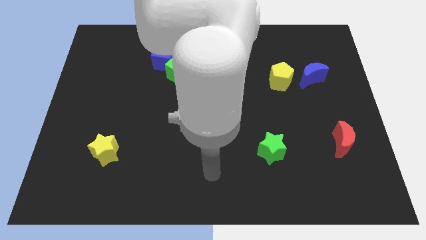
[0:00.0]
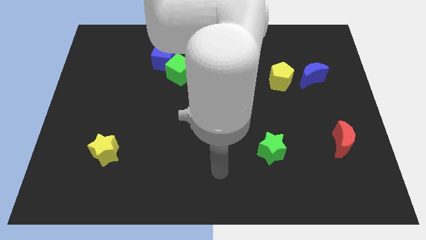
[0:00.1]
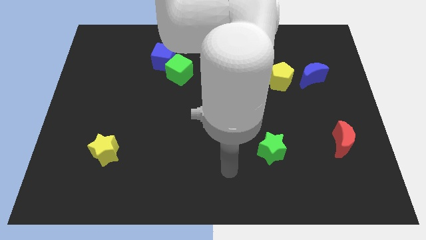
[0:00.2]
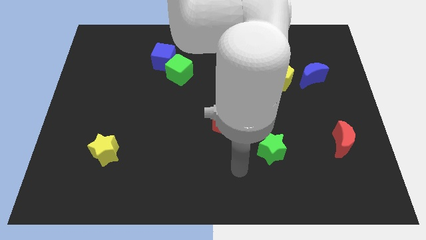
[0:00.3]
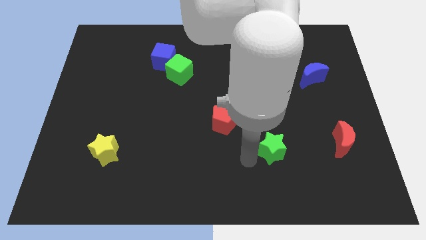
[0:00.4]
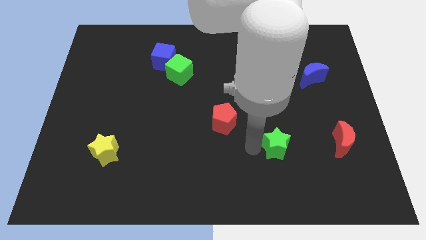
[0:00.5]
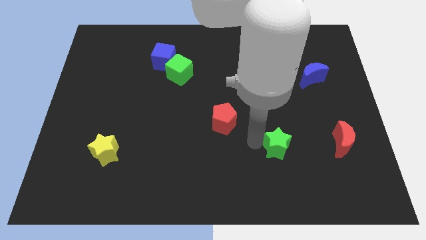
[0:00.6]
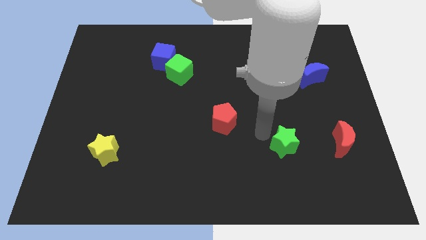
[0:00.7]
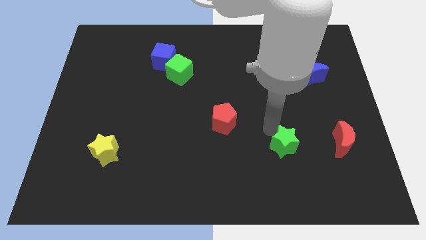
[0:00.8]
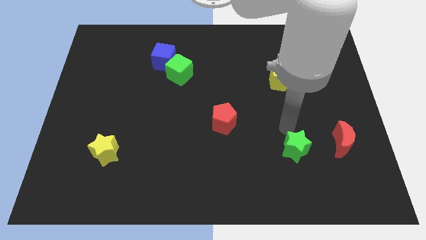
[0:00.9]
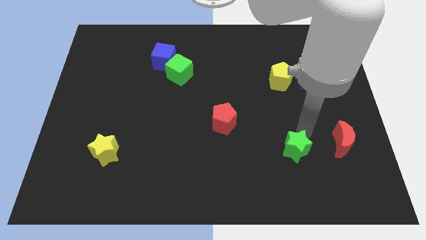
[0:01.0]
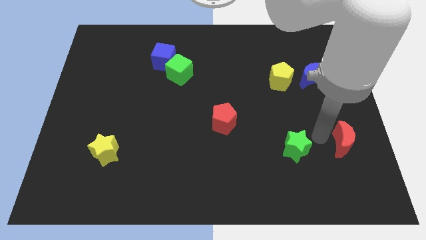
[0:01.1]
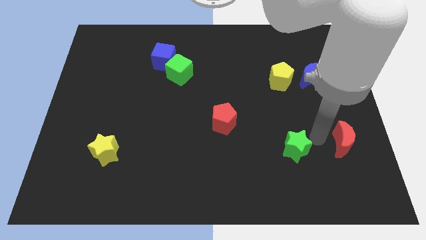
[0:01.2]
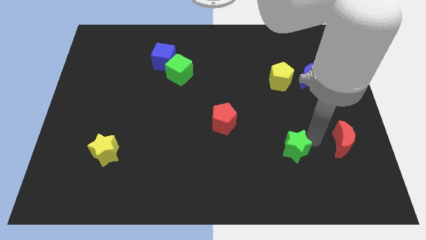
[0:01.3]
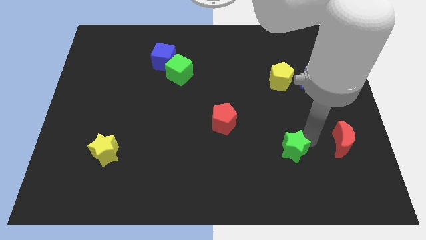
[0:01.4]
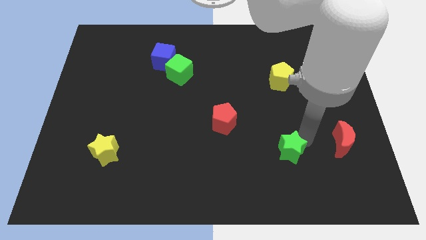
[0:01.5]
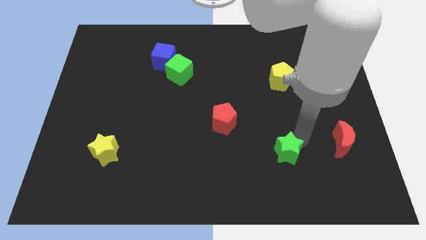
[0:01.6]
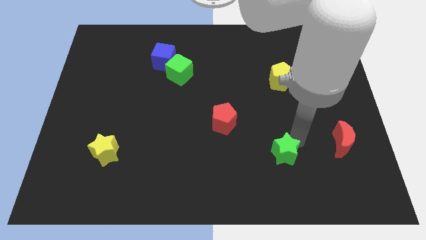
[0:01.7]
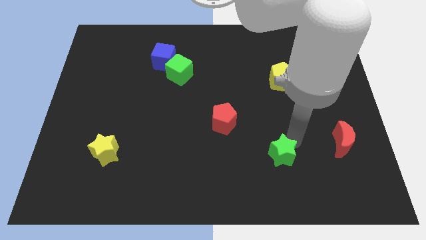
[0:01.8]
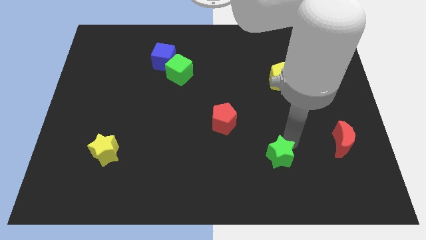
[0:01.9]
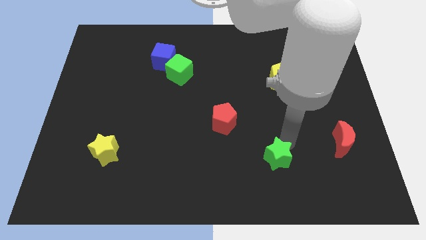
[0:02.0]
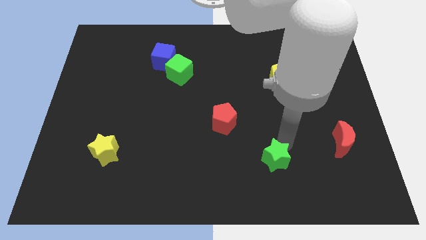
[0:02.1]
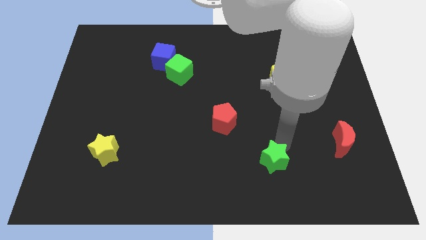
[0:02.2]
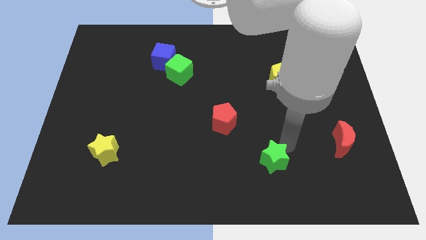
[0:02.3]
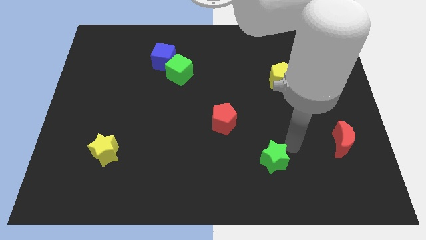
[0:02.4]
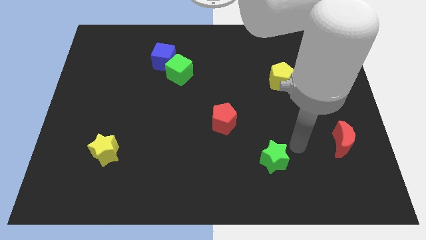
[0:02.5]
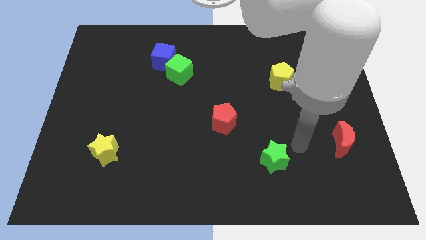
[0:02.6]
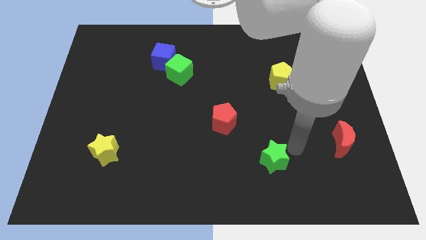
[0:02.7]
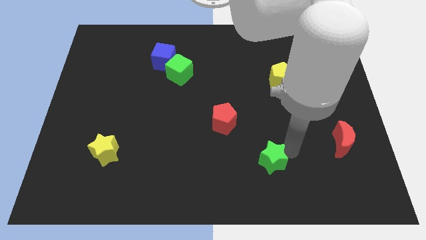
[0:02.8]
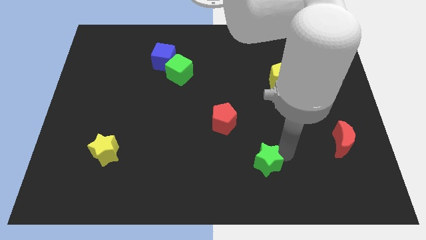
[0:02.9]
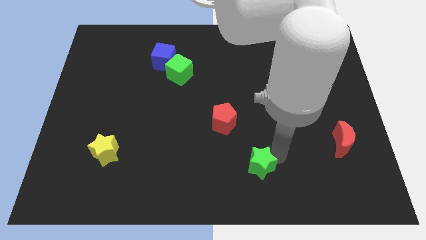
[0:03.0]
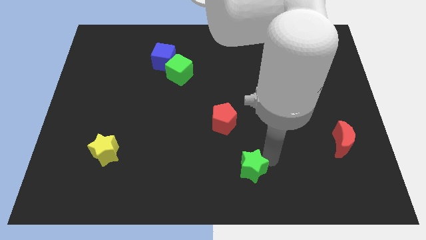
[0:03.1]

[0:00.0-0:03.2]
slide the green star to the bottom

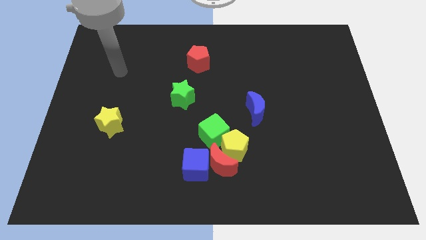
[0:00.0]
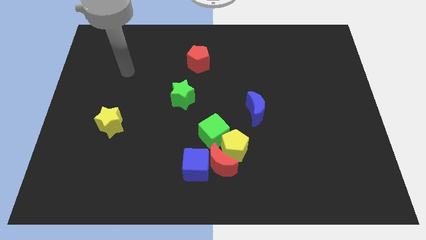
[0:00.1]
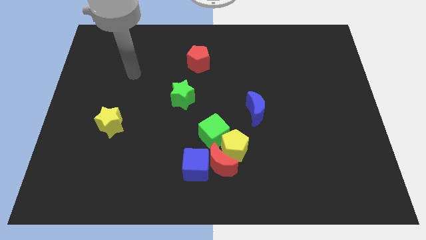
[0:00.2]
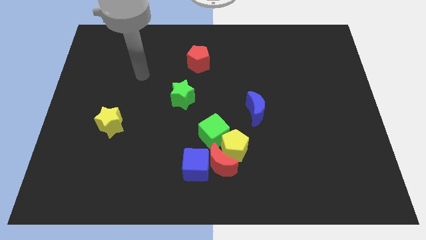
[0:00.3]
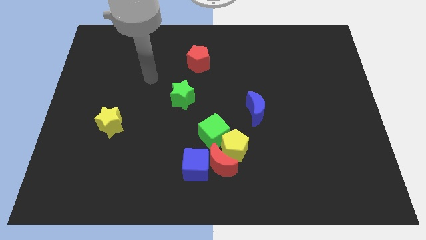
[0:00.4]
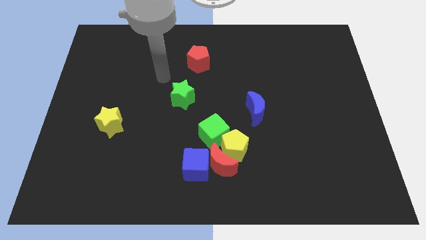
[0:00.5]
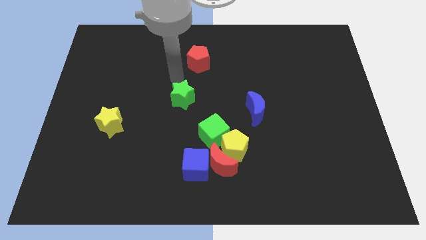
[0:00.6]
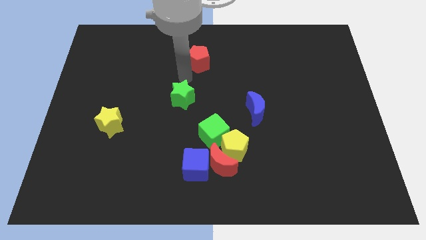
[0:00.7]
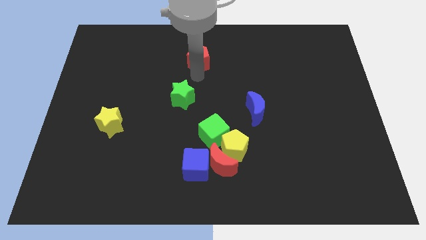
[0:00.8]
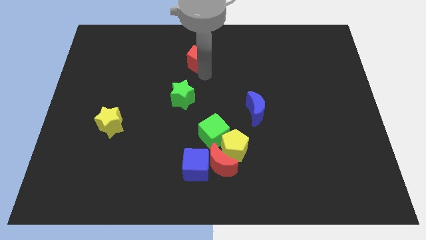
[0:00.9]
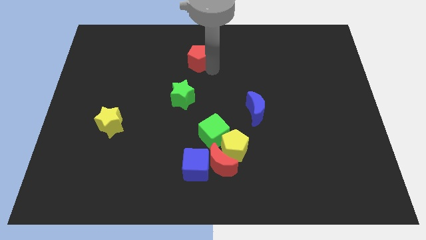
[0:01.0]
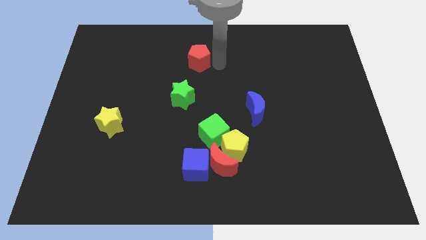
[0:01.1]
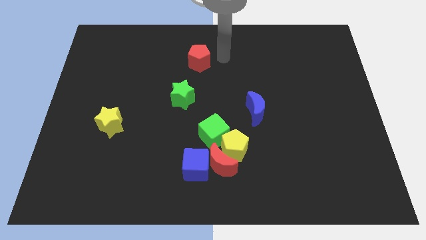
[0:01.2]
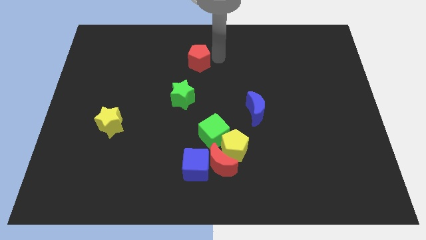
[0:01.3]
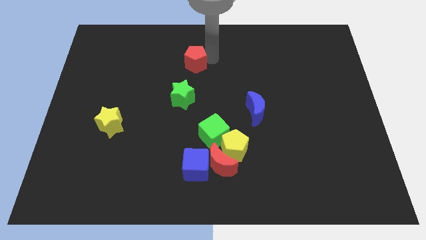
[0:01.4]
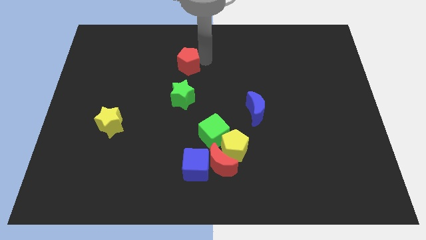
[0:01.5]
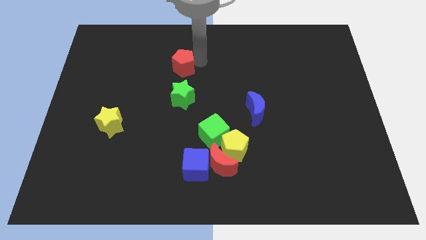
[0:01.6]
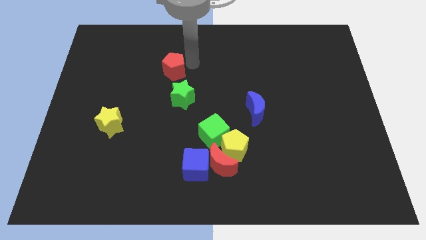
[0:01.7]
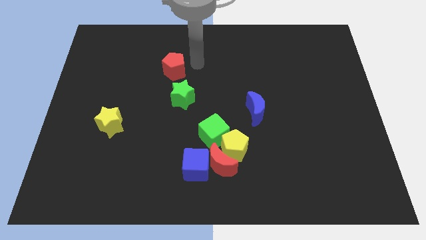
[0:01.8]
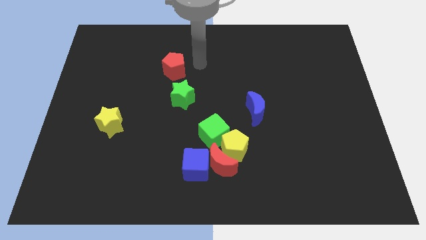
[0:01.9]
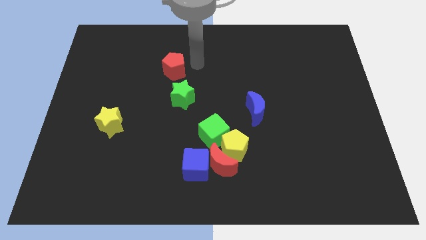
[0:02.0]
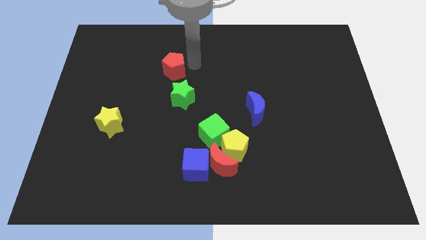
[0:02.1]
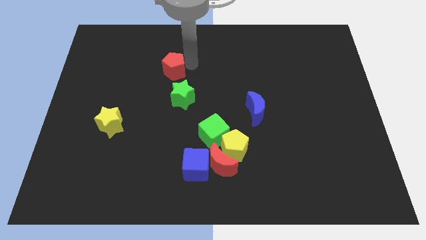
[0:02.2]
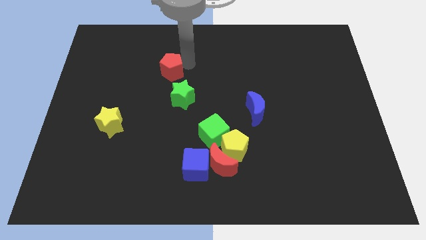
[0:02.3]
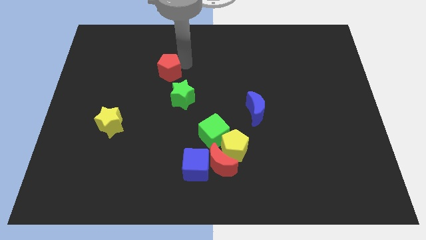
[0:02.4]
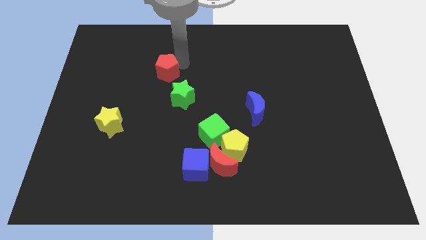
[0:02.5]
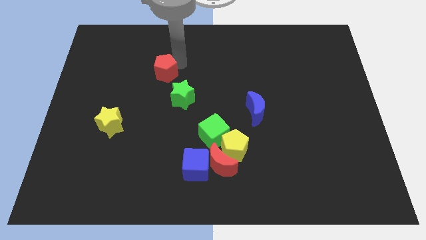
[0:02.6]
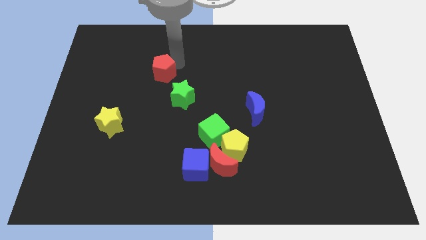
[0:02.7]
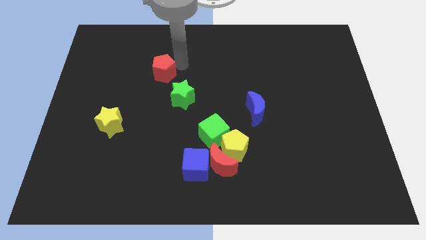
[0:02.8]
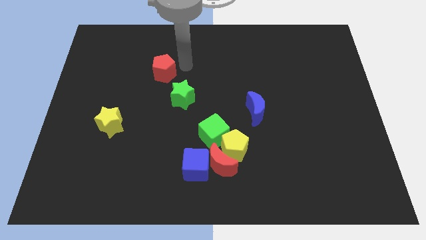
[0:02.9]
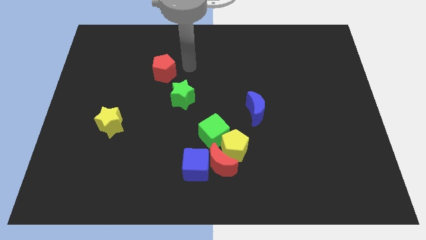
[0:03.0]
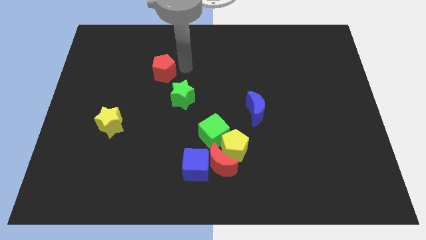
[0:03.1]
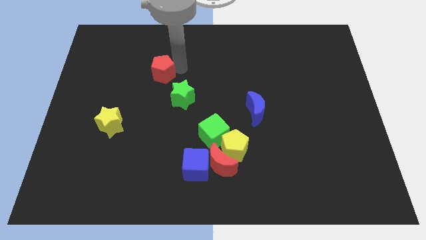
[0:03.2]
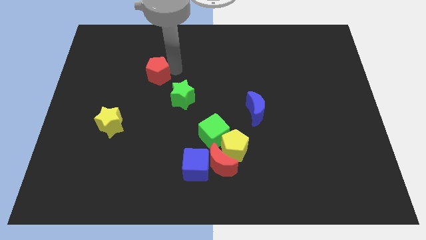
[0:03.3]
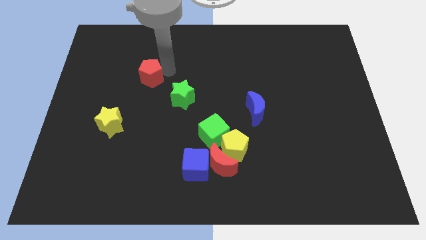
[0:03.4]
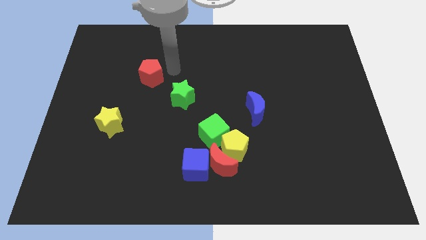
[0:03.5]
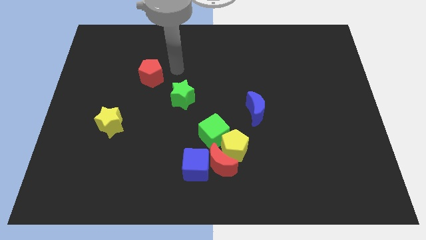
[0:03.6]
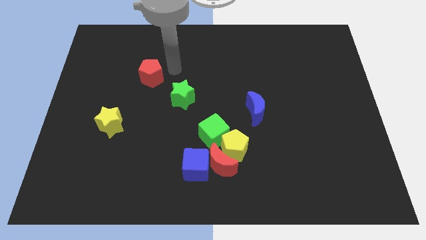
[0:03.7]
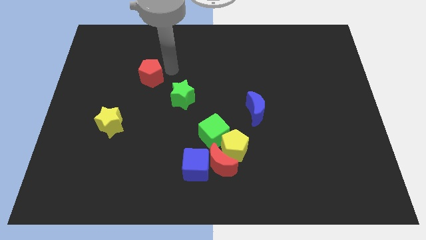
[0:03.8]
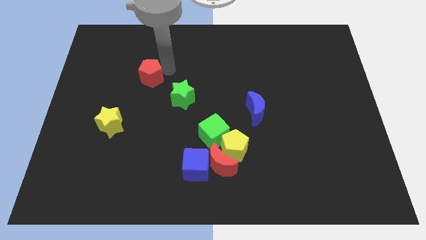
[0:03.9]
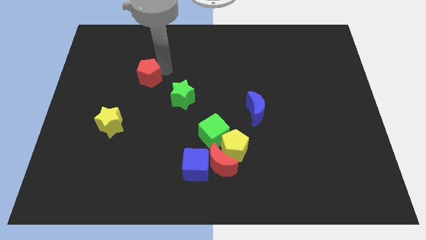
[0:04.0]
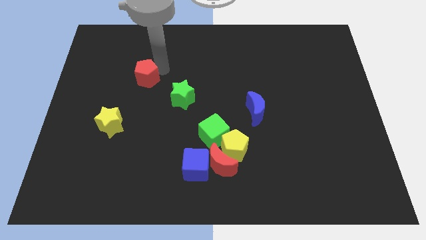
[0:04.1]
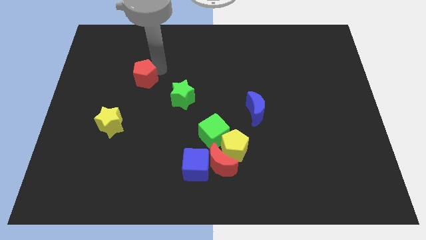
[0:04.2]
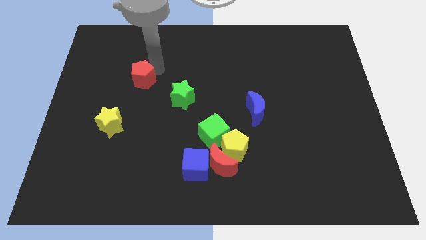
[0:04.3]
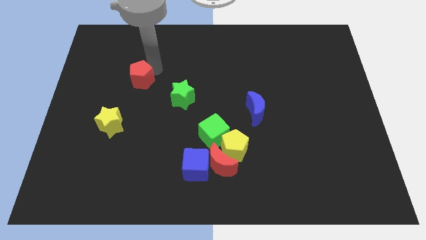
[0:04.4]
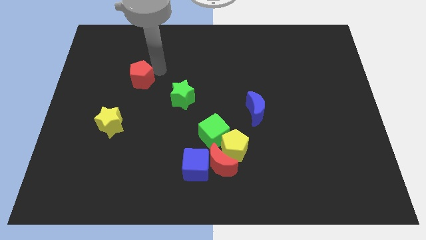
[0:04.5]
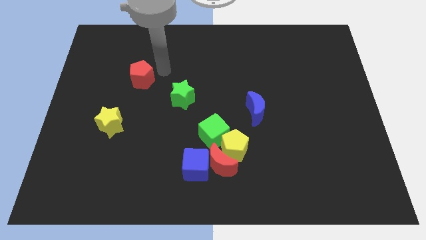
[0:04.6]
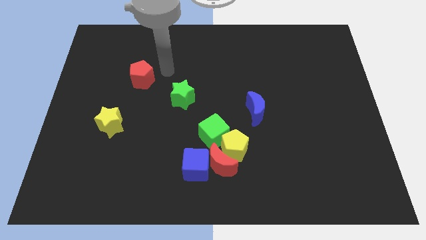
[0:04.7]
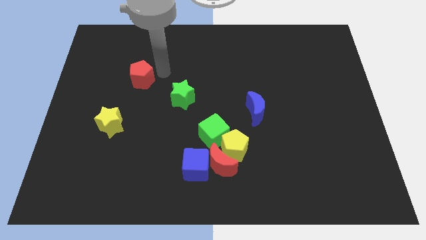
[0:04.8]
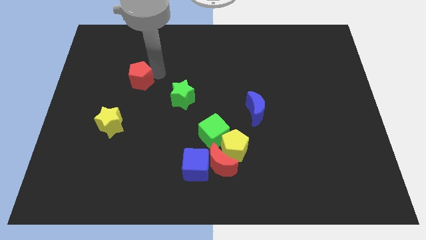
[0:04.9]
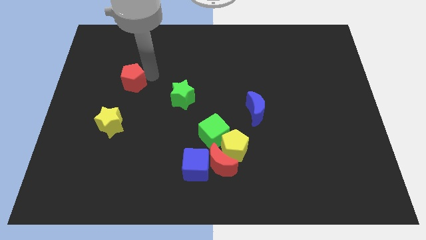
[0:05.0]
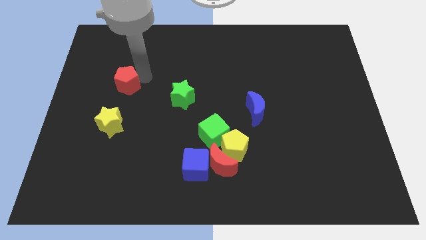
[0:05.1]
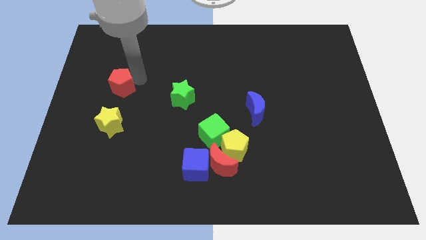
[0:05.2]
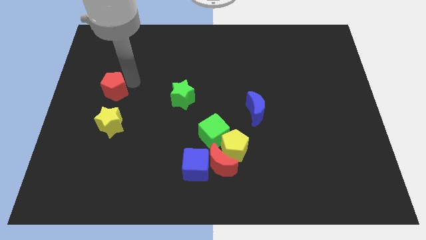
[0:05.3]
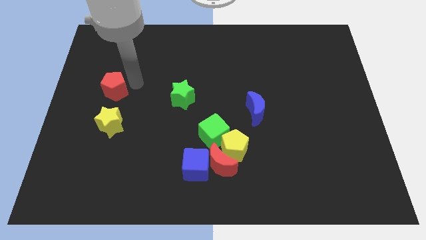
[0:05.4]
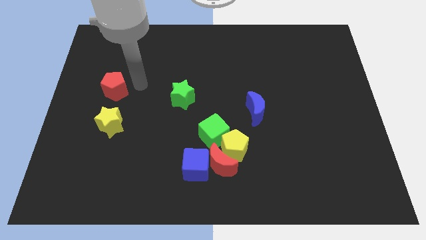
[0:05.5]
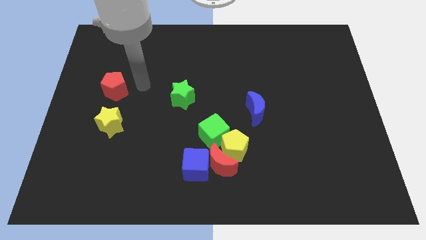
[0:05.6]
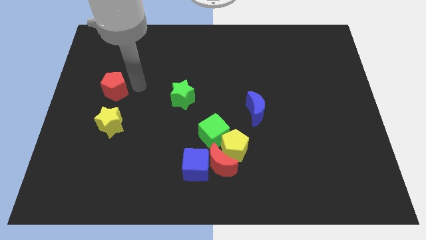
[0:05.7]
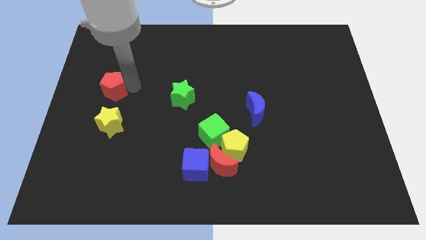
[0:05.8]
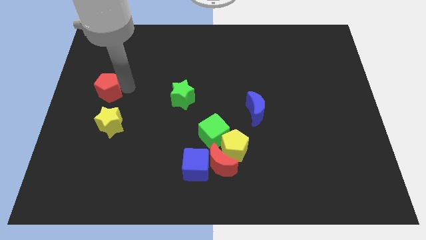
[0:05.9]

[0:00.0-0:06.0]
slide the red pentagon to the center left
